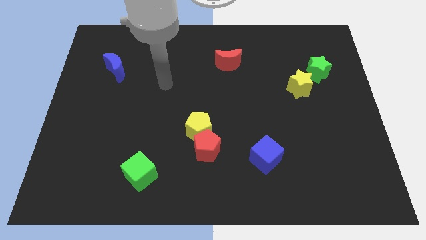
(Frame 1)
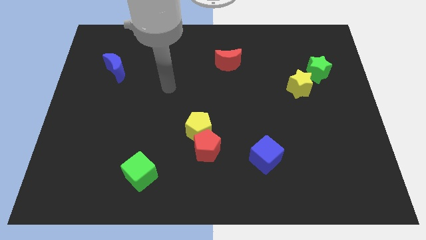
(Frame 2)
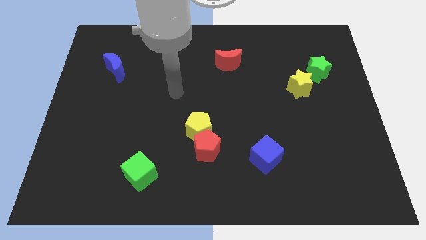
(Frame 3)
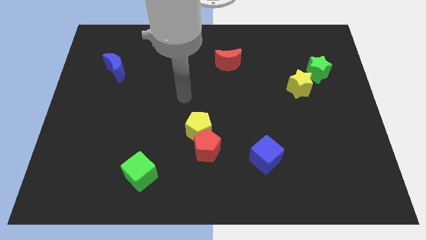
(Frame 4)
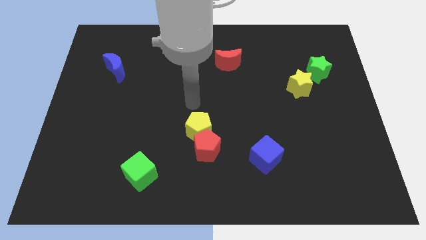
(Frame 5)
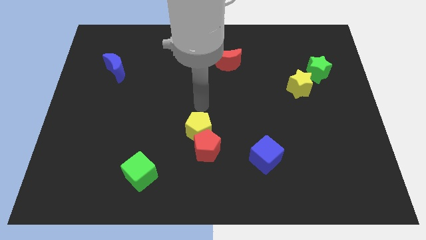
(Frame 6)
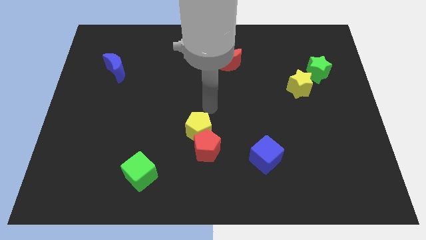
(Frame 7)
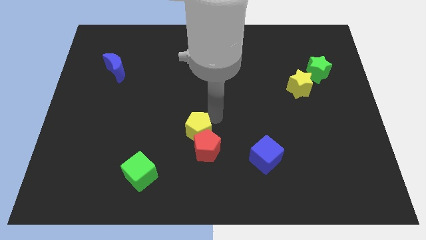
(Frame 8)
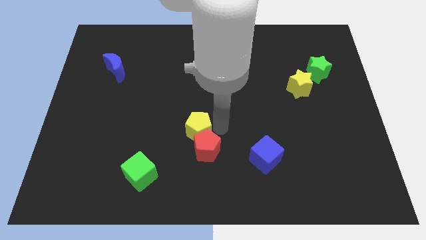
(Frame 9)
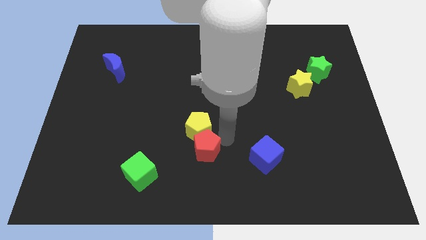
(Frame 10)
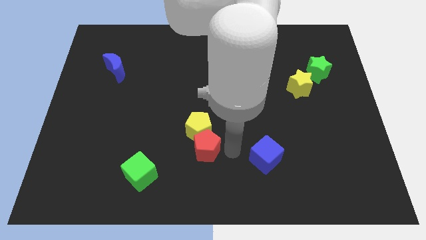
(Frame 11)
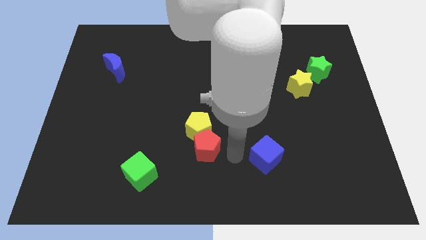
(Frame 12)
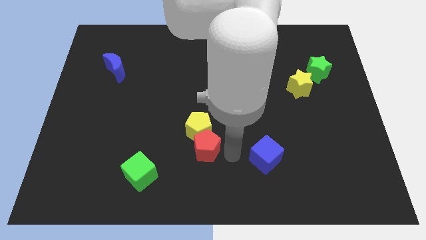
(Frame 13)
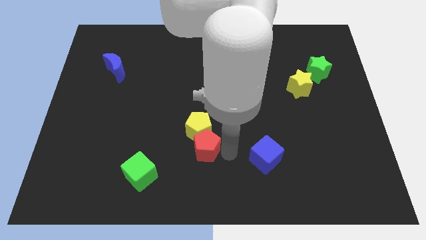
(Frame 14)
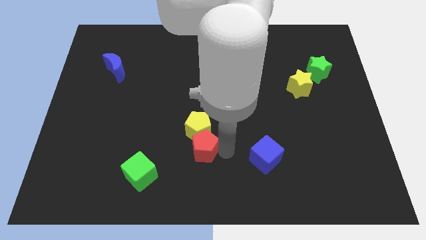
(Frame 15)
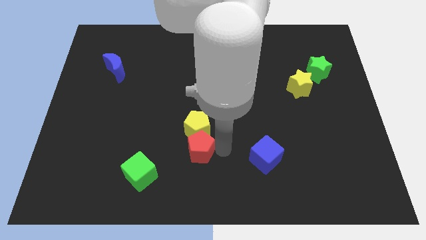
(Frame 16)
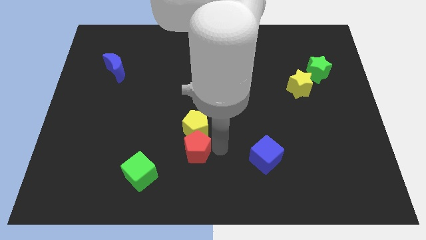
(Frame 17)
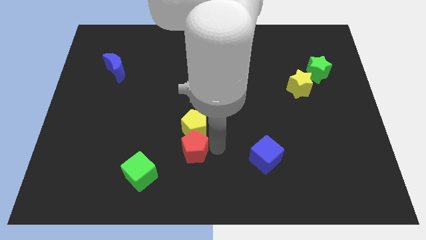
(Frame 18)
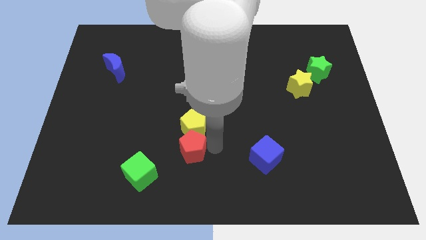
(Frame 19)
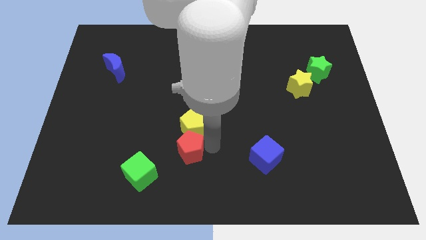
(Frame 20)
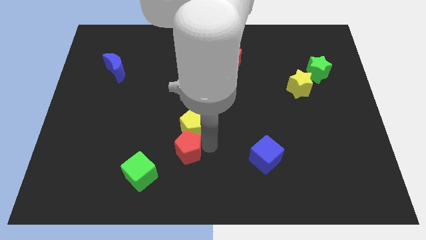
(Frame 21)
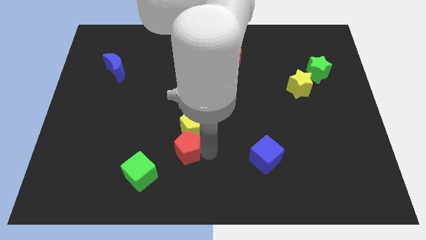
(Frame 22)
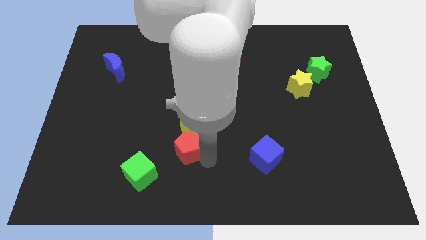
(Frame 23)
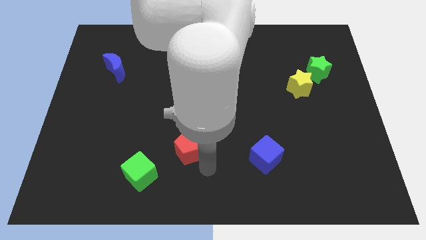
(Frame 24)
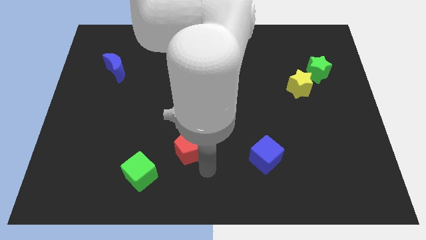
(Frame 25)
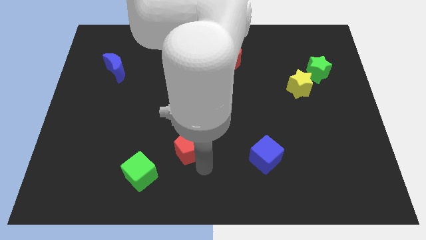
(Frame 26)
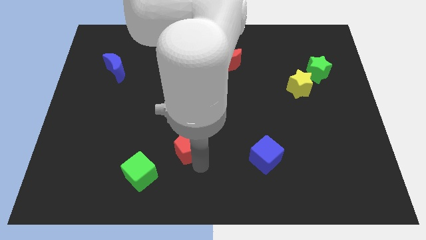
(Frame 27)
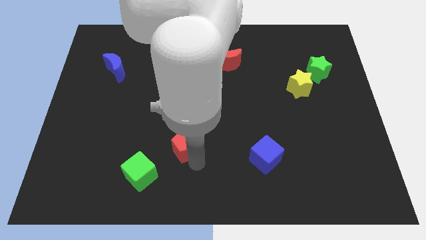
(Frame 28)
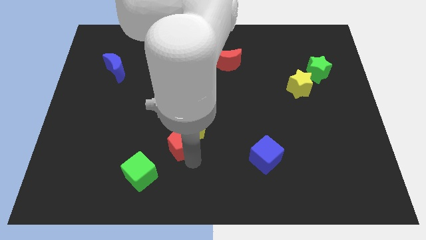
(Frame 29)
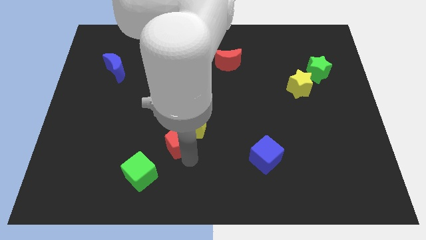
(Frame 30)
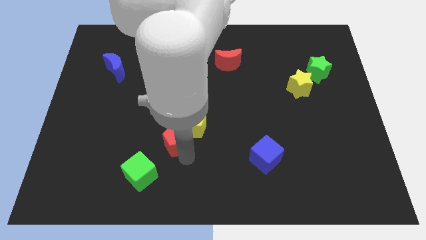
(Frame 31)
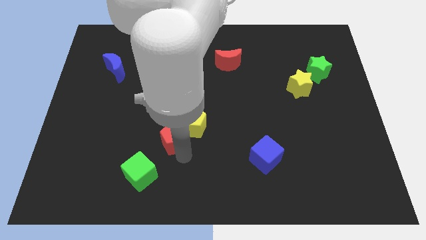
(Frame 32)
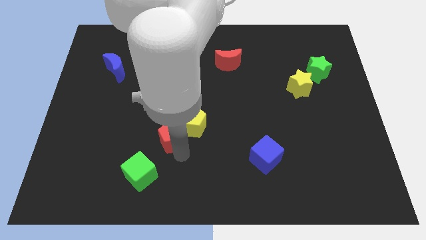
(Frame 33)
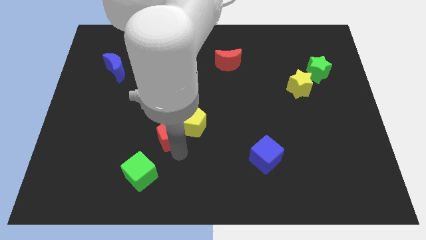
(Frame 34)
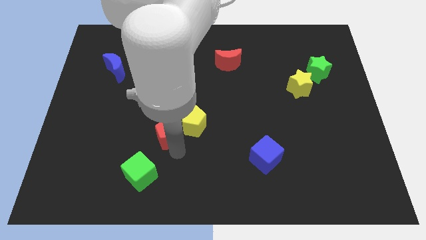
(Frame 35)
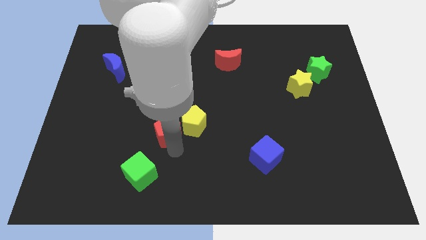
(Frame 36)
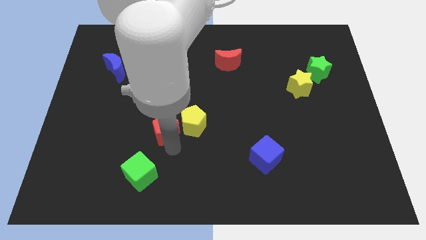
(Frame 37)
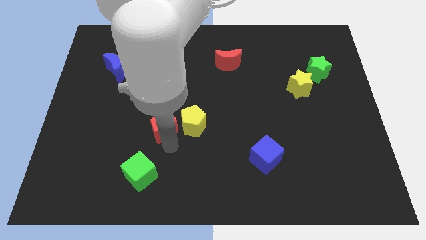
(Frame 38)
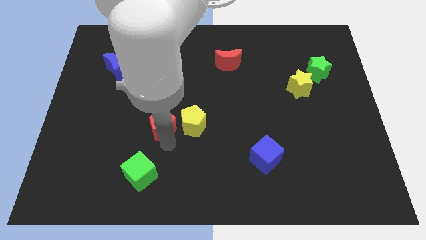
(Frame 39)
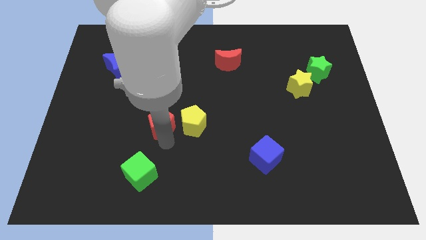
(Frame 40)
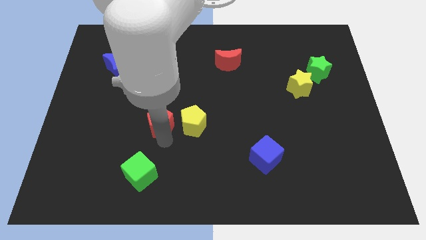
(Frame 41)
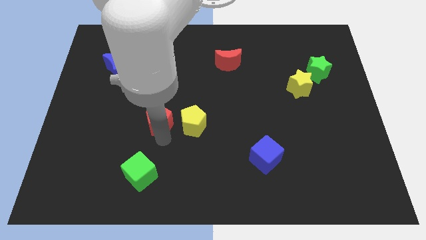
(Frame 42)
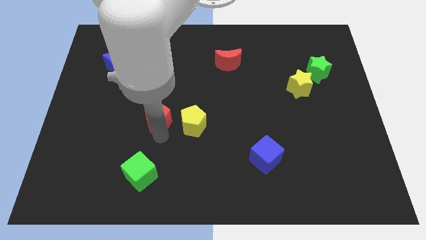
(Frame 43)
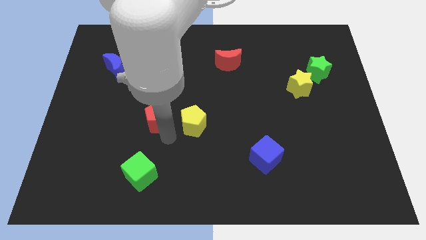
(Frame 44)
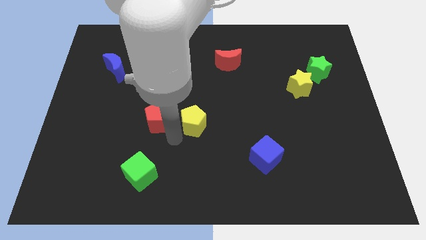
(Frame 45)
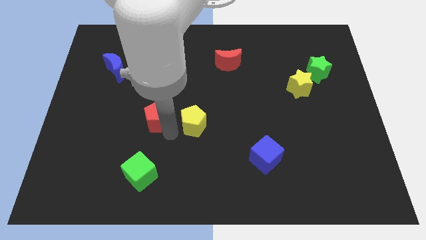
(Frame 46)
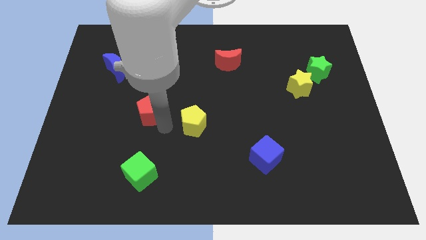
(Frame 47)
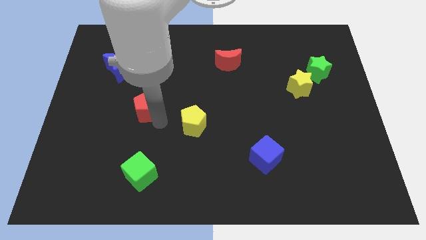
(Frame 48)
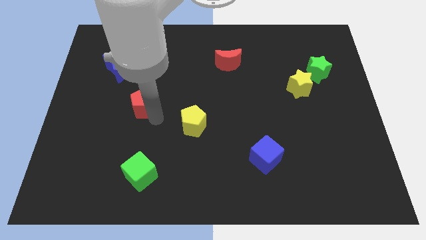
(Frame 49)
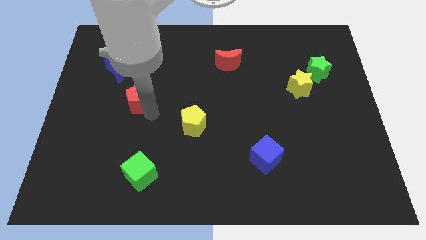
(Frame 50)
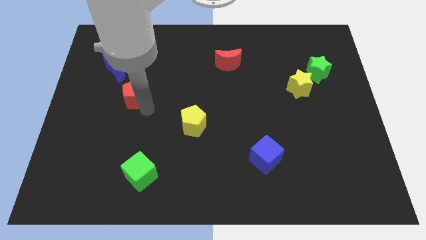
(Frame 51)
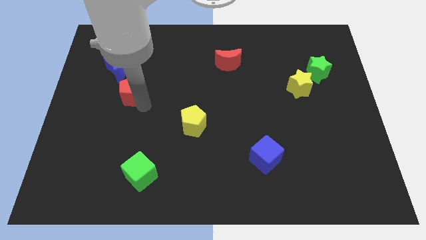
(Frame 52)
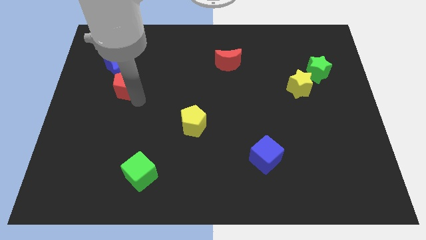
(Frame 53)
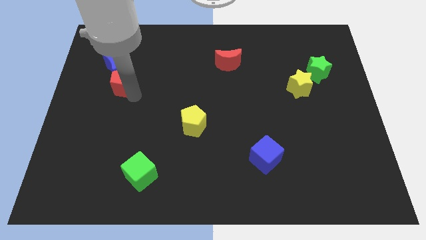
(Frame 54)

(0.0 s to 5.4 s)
push the red pentagon close to the blue moon

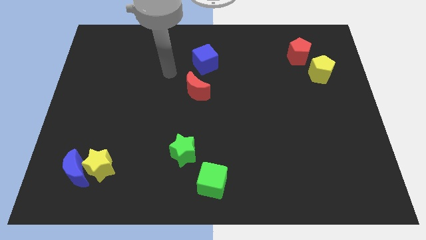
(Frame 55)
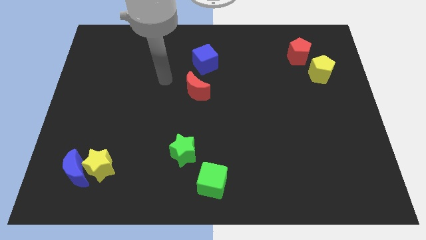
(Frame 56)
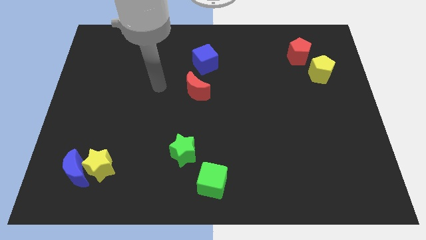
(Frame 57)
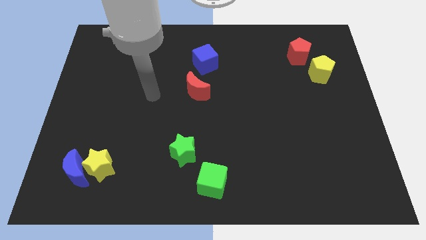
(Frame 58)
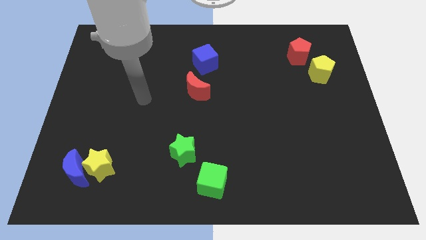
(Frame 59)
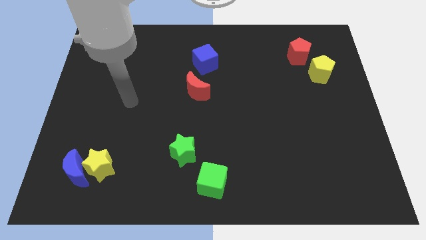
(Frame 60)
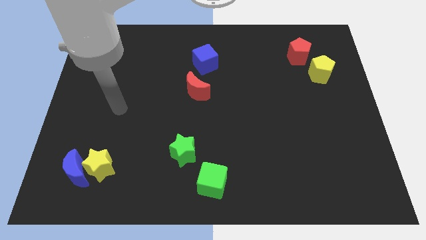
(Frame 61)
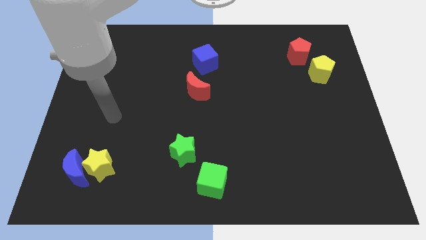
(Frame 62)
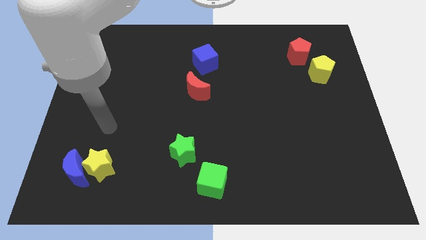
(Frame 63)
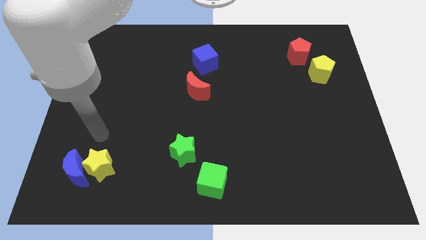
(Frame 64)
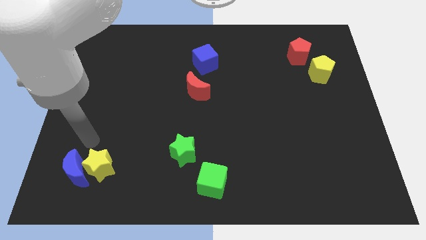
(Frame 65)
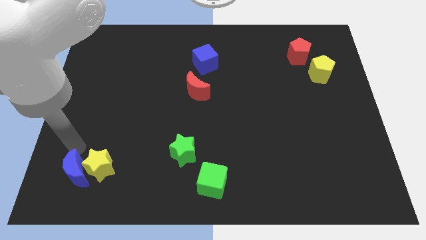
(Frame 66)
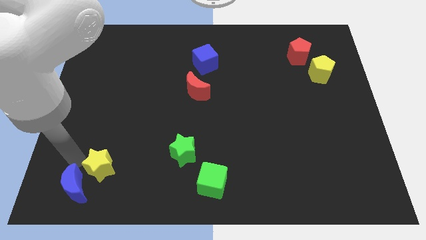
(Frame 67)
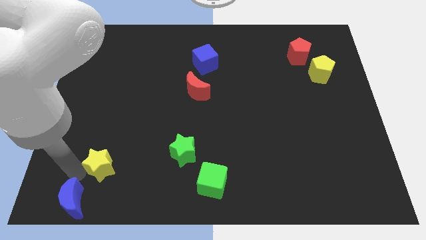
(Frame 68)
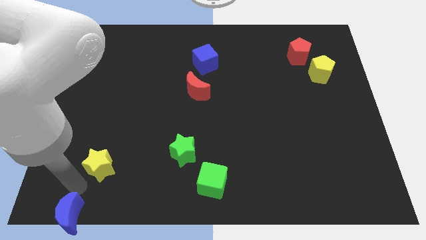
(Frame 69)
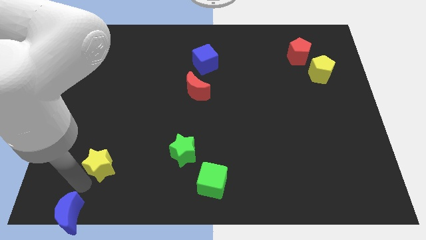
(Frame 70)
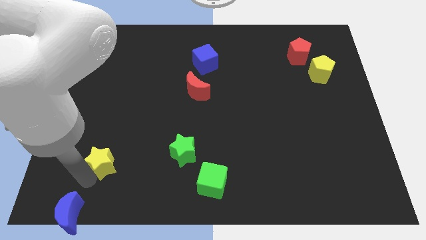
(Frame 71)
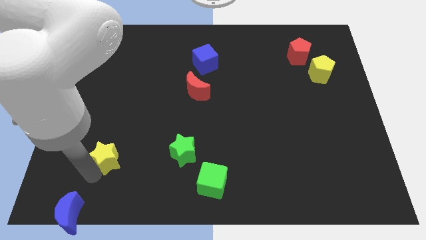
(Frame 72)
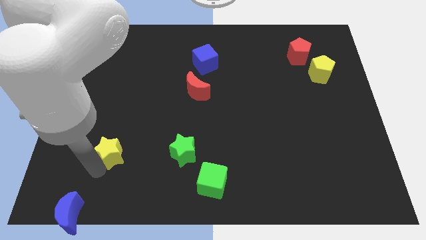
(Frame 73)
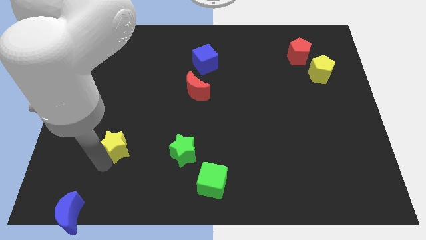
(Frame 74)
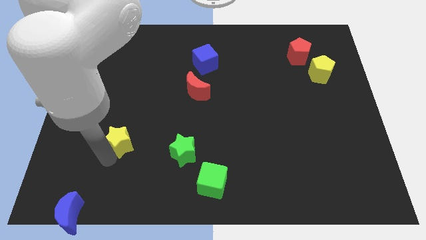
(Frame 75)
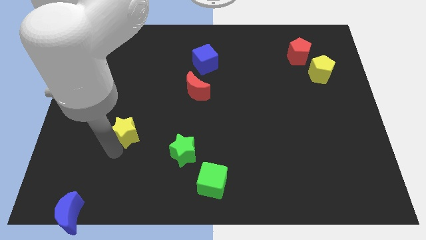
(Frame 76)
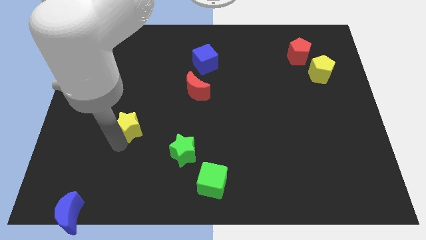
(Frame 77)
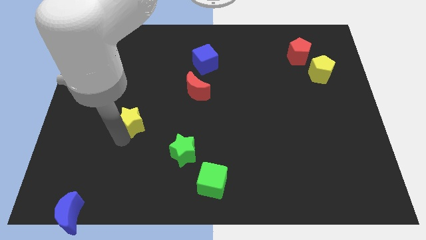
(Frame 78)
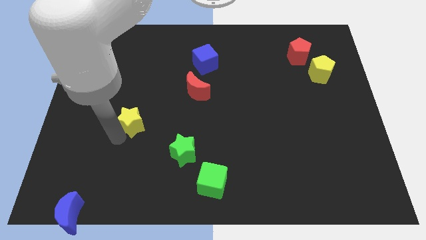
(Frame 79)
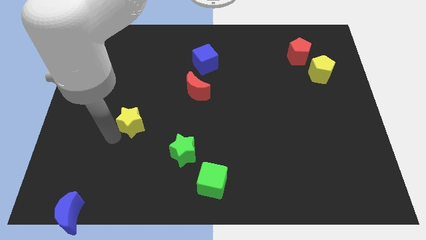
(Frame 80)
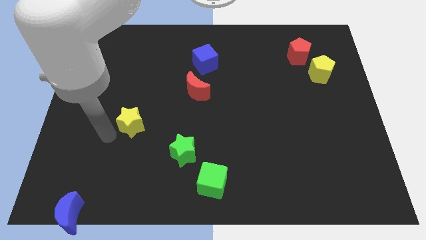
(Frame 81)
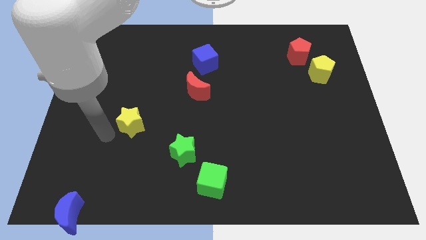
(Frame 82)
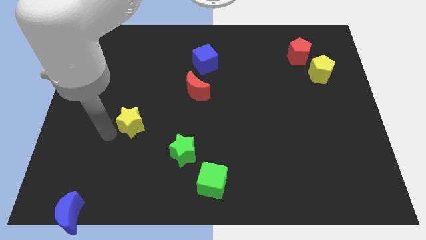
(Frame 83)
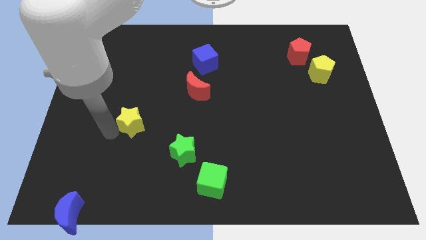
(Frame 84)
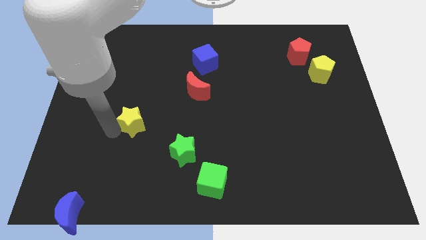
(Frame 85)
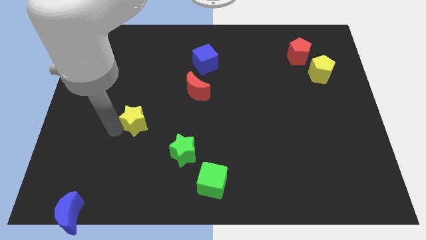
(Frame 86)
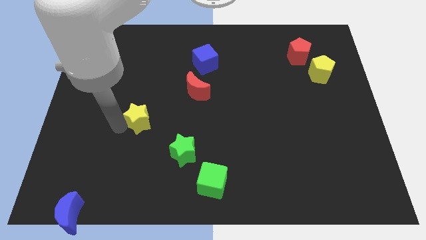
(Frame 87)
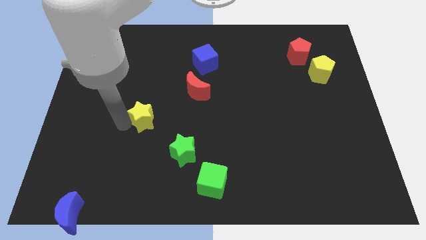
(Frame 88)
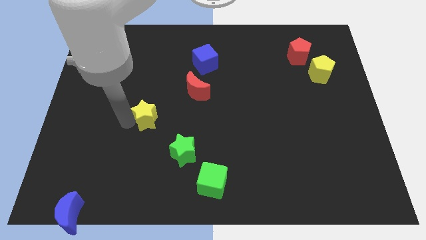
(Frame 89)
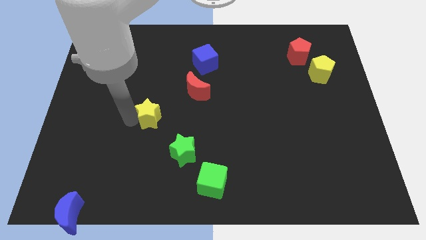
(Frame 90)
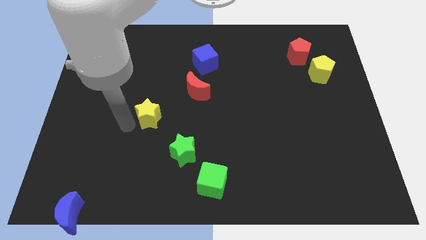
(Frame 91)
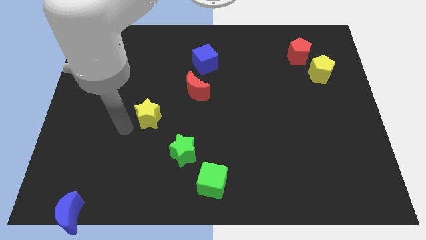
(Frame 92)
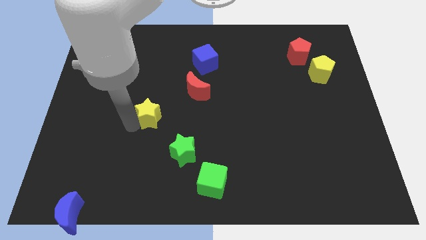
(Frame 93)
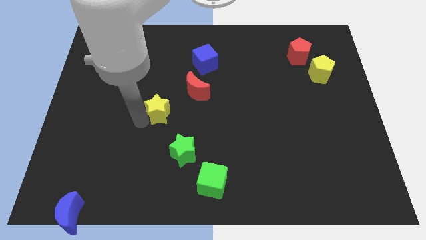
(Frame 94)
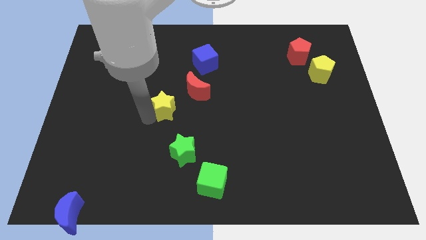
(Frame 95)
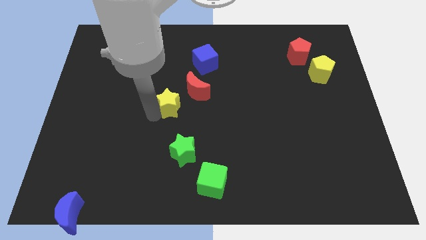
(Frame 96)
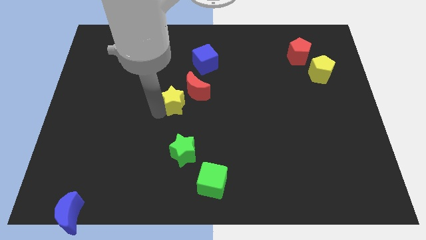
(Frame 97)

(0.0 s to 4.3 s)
push the yellow star next to the red moon
